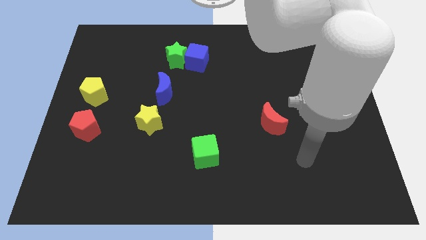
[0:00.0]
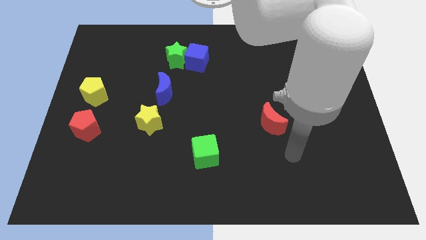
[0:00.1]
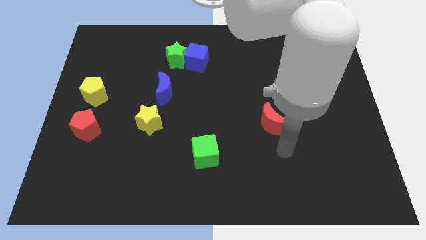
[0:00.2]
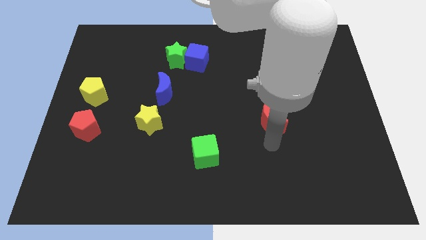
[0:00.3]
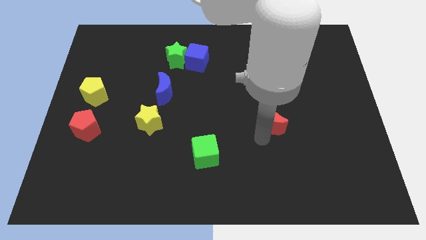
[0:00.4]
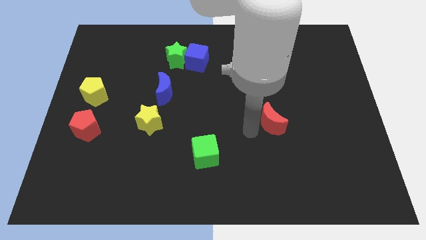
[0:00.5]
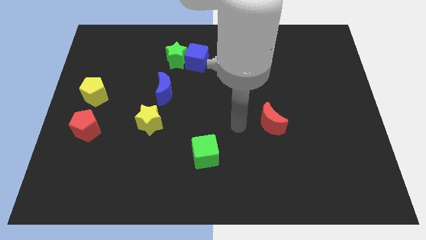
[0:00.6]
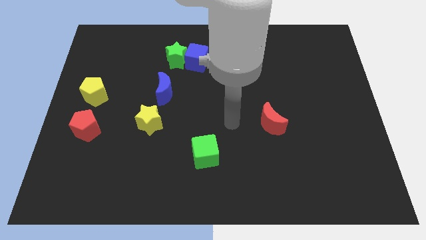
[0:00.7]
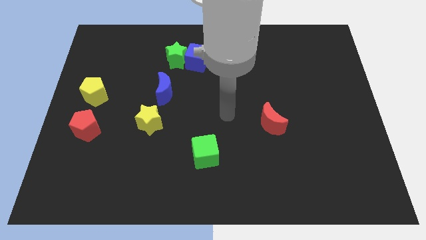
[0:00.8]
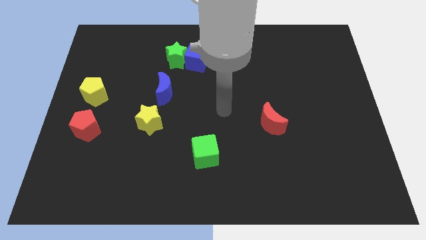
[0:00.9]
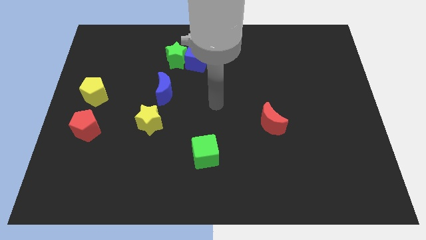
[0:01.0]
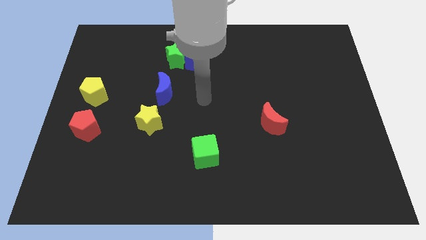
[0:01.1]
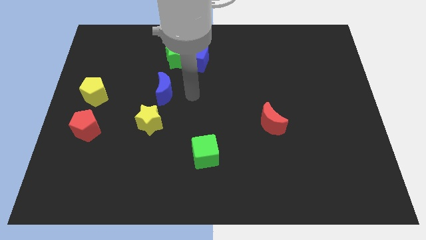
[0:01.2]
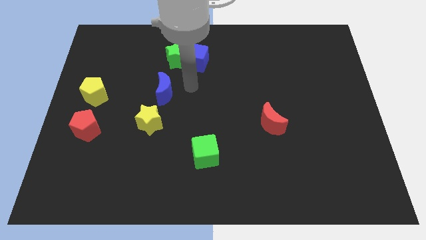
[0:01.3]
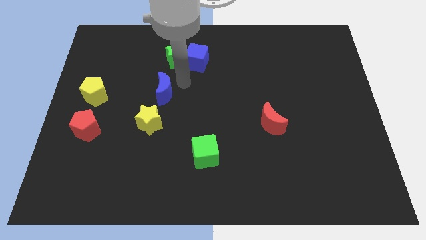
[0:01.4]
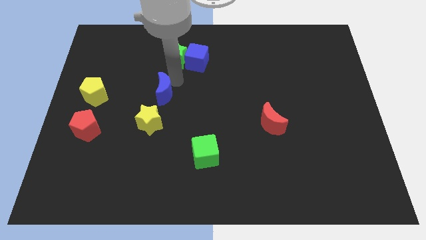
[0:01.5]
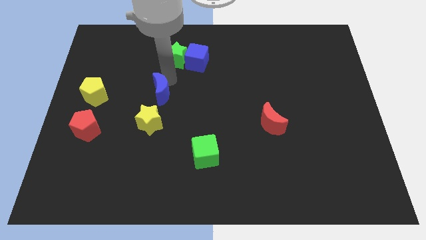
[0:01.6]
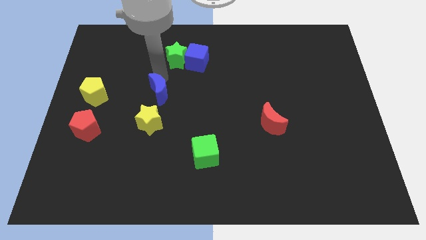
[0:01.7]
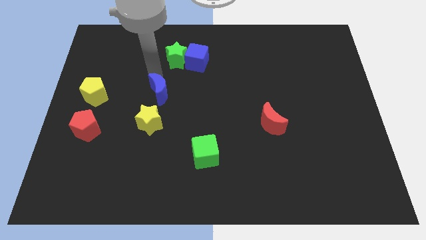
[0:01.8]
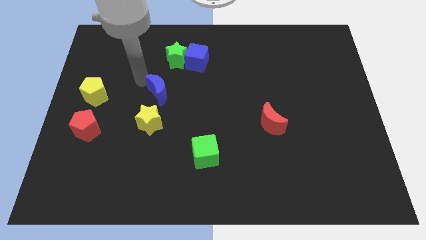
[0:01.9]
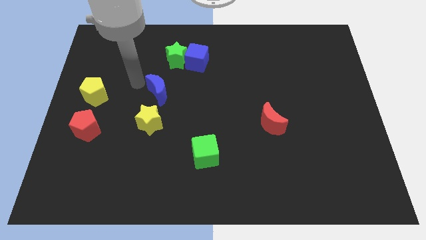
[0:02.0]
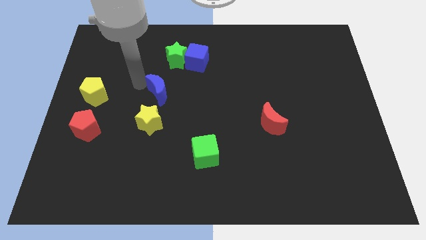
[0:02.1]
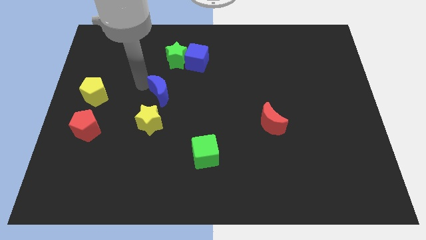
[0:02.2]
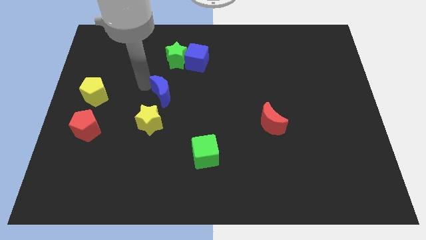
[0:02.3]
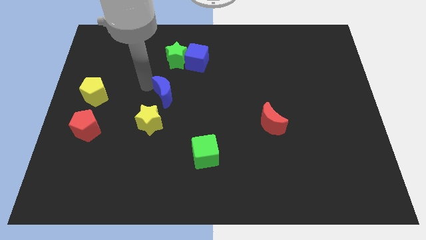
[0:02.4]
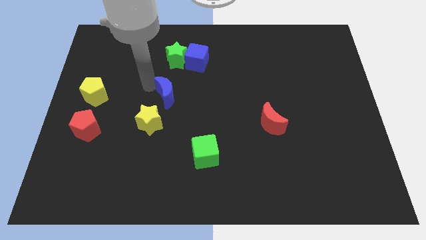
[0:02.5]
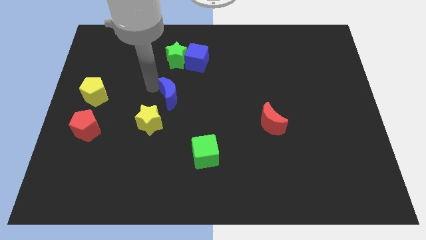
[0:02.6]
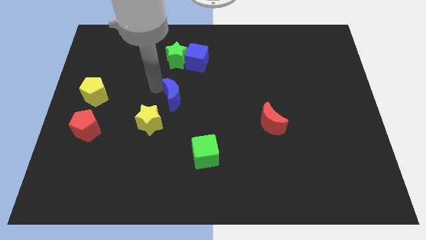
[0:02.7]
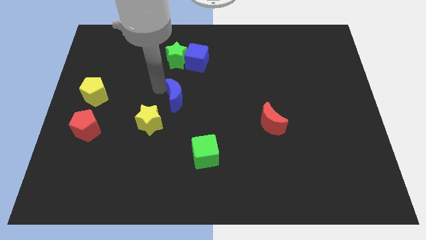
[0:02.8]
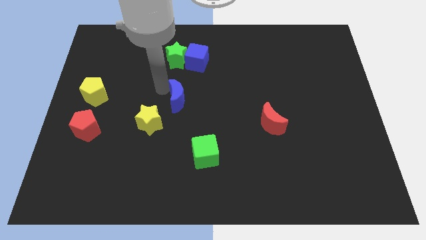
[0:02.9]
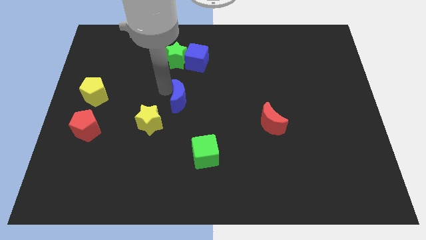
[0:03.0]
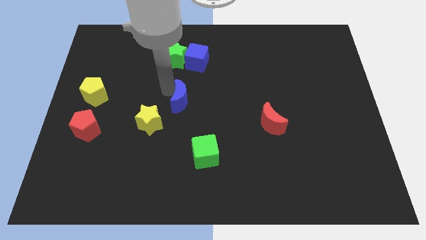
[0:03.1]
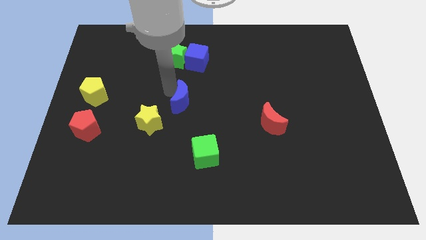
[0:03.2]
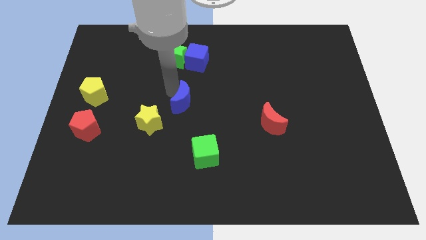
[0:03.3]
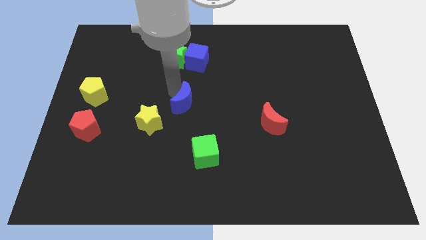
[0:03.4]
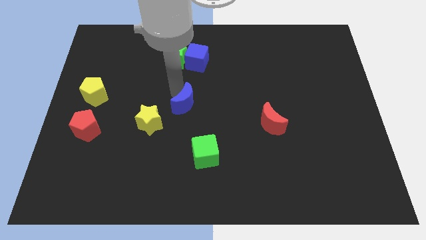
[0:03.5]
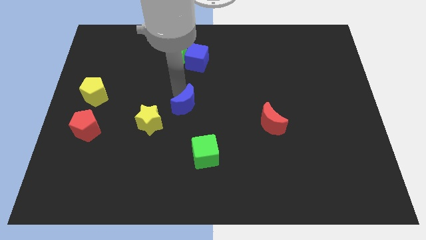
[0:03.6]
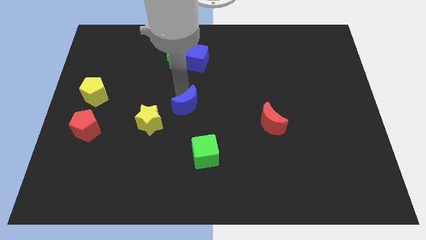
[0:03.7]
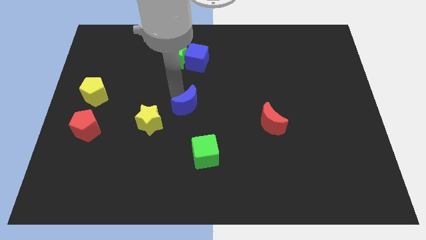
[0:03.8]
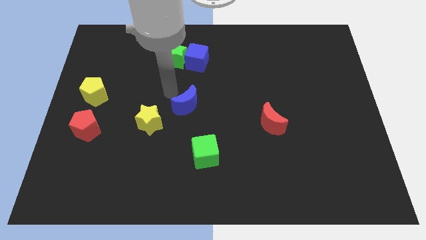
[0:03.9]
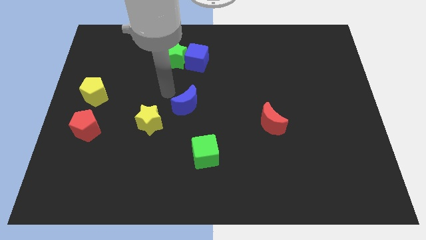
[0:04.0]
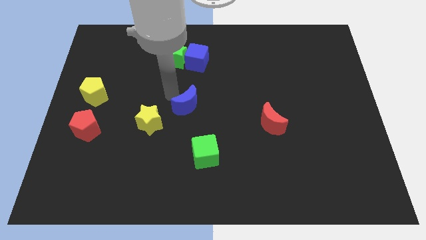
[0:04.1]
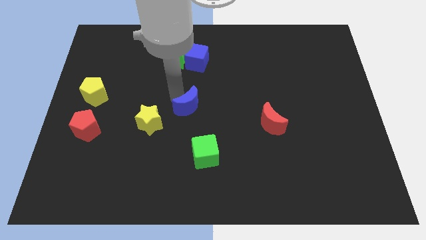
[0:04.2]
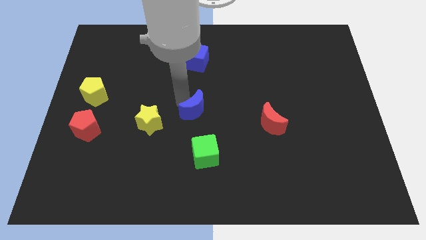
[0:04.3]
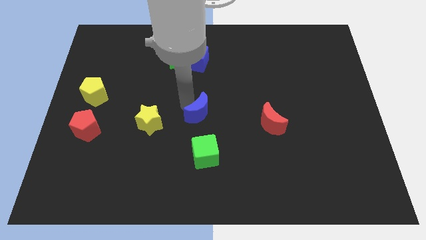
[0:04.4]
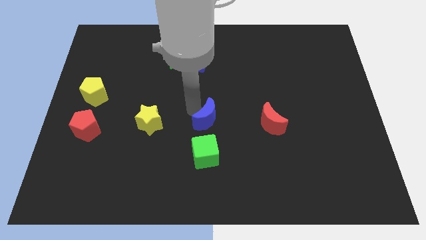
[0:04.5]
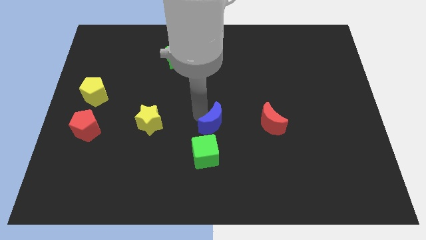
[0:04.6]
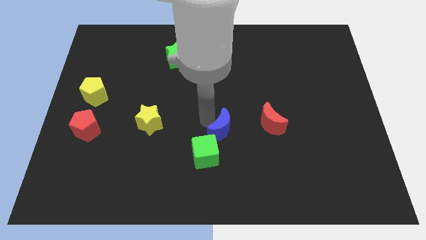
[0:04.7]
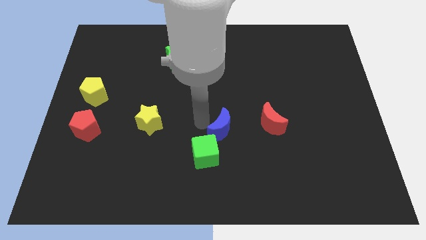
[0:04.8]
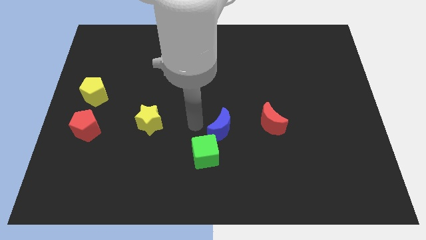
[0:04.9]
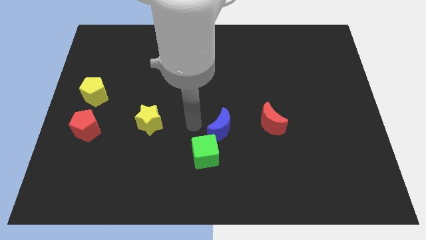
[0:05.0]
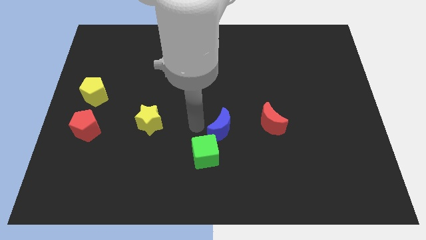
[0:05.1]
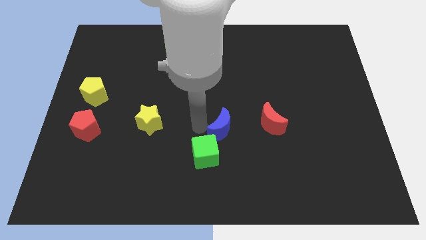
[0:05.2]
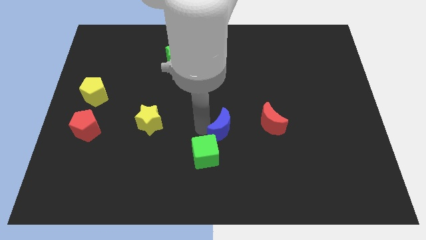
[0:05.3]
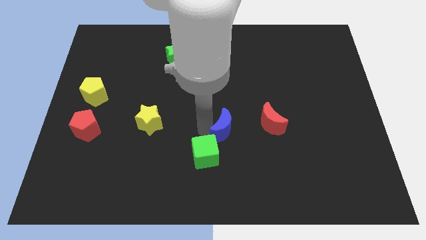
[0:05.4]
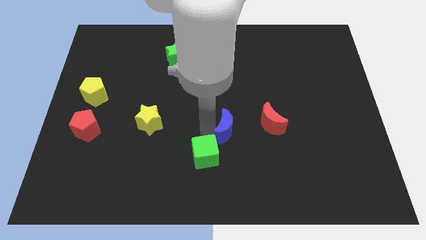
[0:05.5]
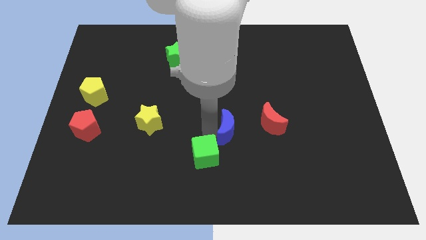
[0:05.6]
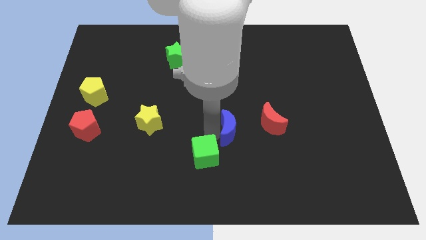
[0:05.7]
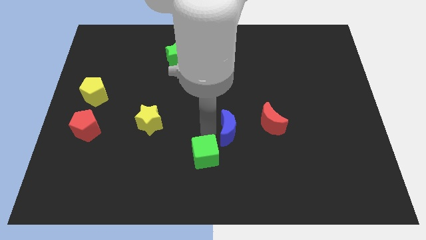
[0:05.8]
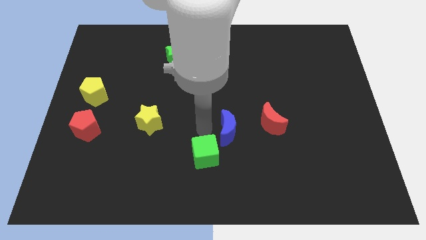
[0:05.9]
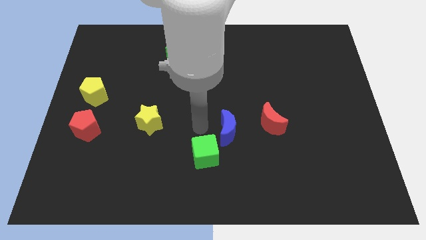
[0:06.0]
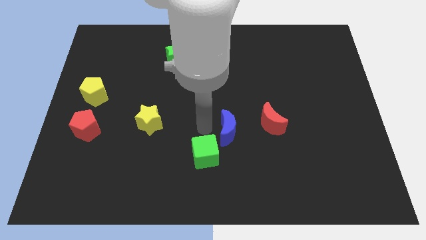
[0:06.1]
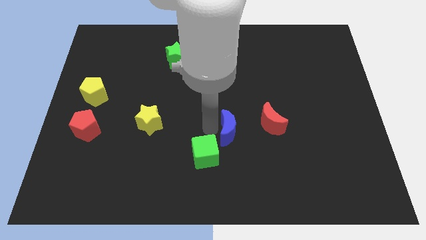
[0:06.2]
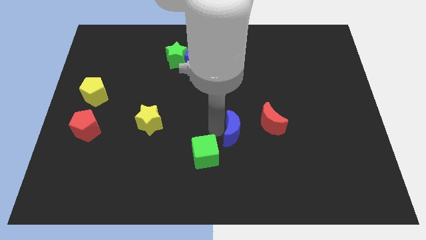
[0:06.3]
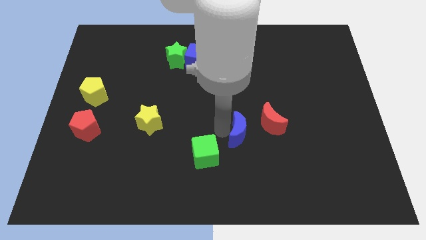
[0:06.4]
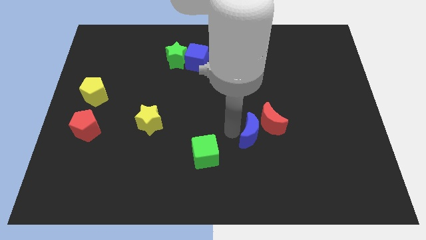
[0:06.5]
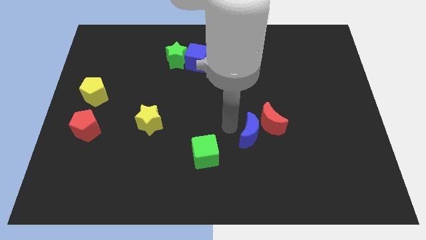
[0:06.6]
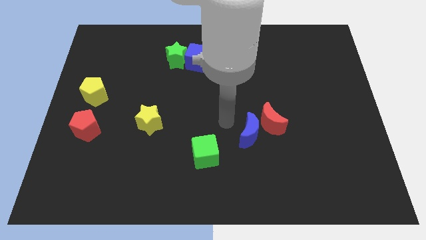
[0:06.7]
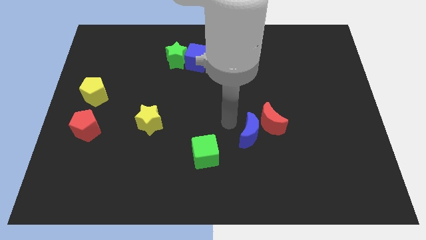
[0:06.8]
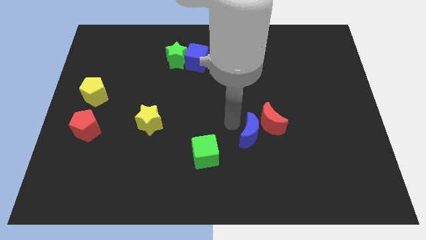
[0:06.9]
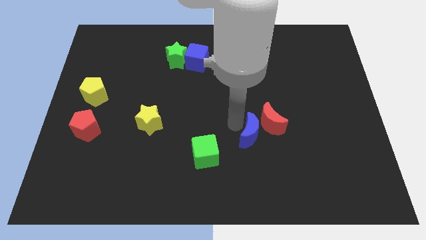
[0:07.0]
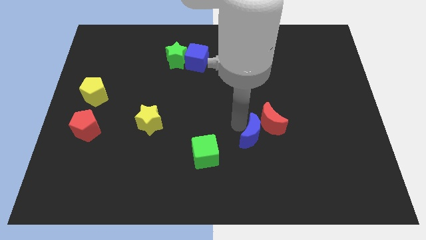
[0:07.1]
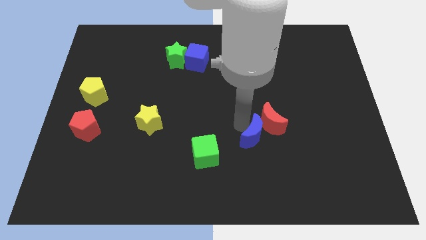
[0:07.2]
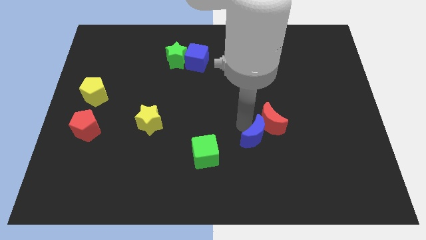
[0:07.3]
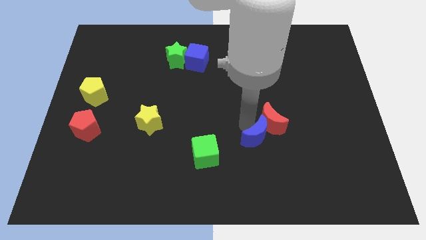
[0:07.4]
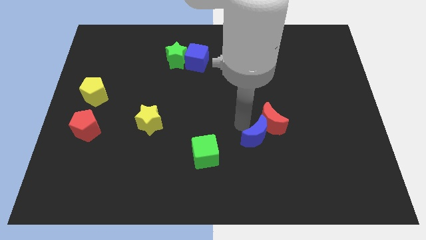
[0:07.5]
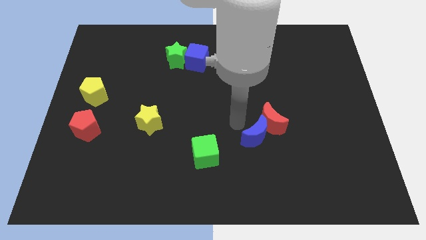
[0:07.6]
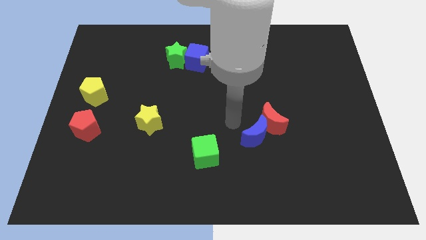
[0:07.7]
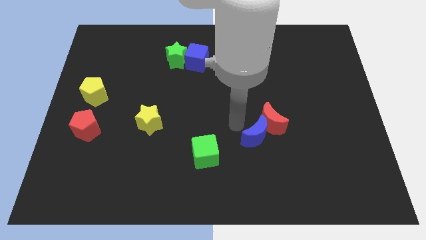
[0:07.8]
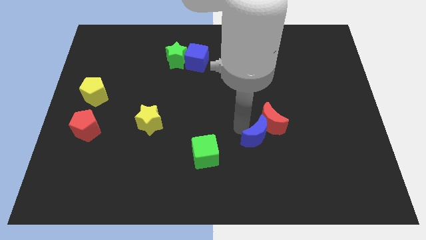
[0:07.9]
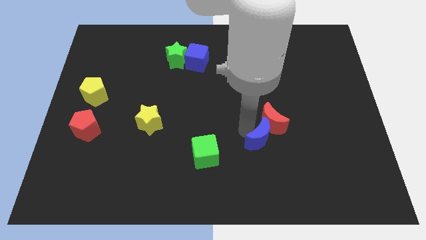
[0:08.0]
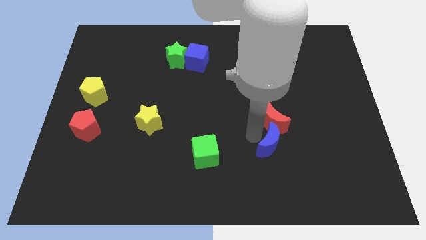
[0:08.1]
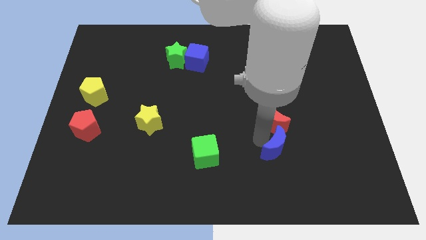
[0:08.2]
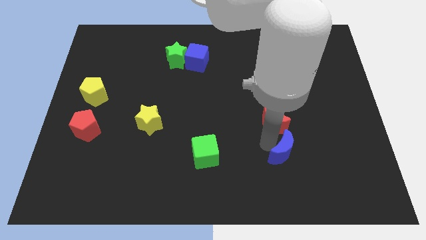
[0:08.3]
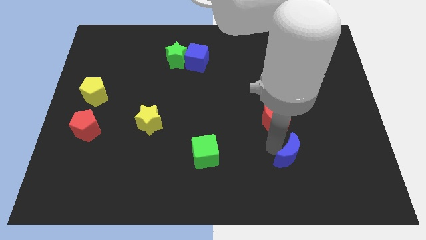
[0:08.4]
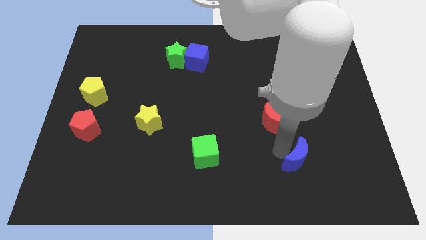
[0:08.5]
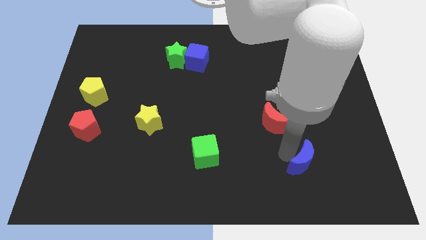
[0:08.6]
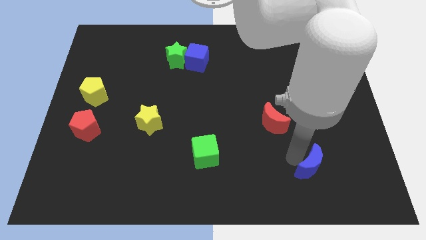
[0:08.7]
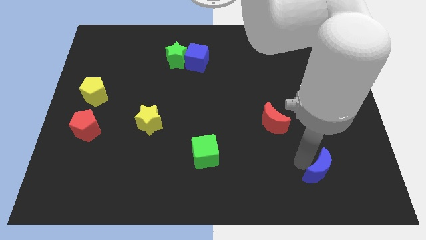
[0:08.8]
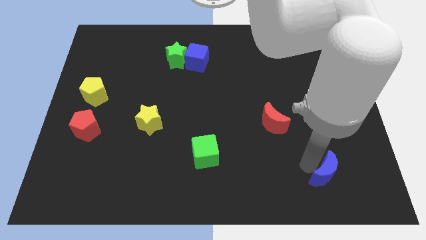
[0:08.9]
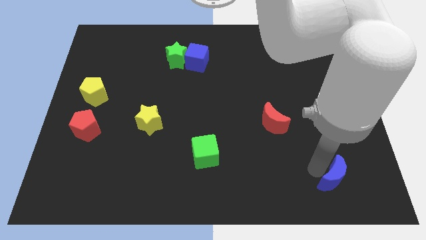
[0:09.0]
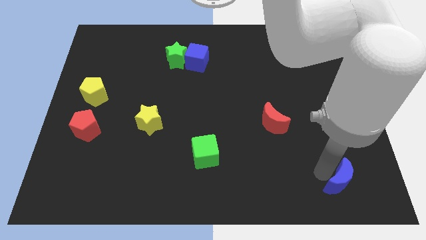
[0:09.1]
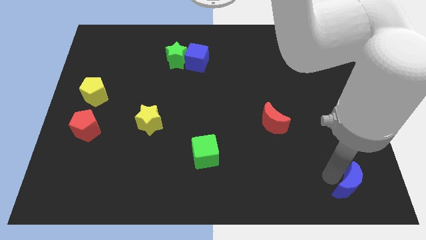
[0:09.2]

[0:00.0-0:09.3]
push the blue moon to the bottom right corner
